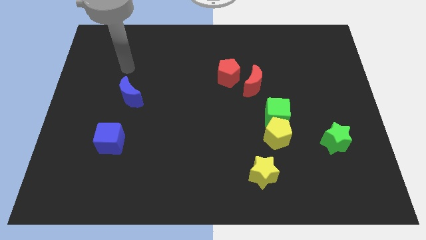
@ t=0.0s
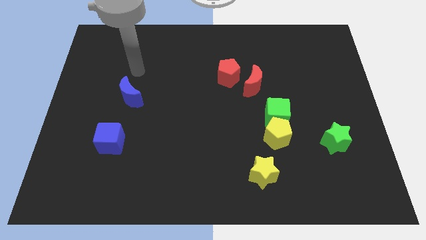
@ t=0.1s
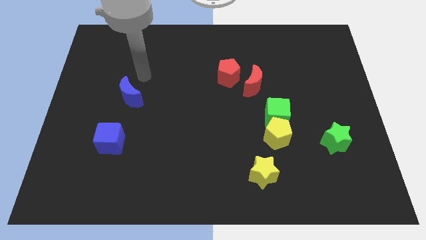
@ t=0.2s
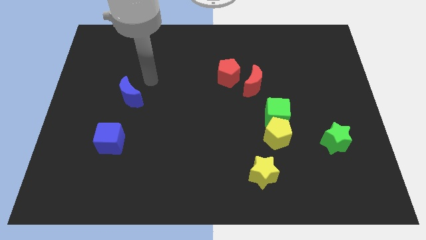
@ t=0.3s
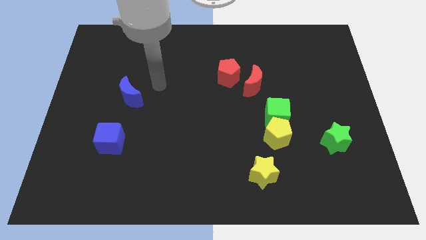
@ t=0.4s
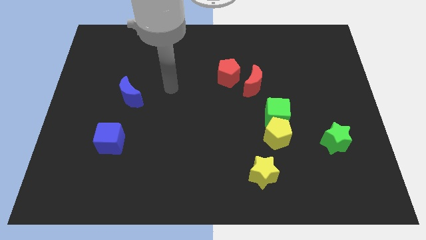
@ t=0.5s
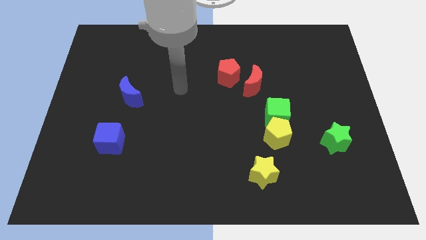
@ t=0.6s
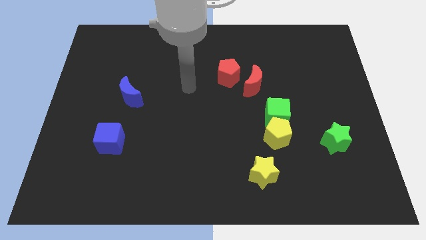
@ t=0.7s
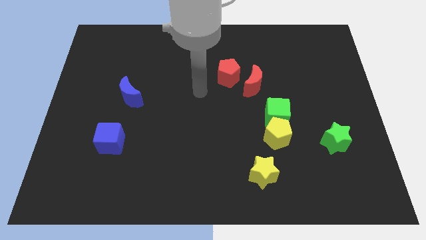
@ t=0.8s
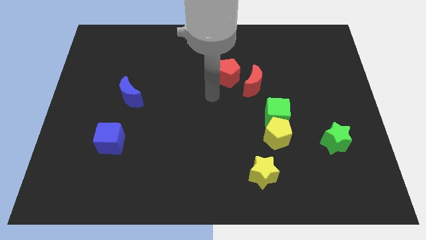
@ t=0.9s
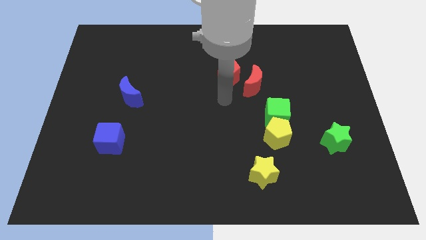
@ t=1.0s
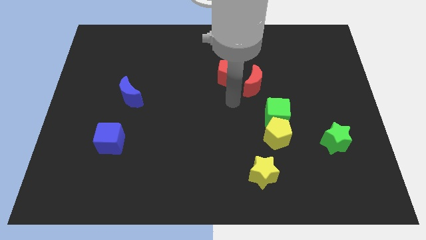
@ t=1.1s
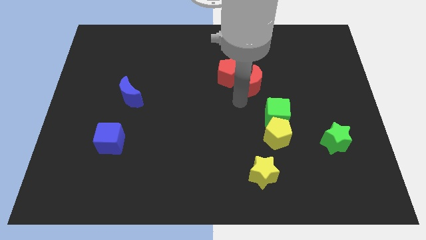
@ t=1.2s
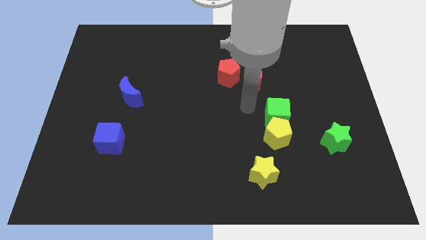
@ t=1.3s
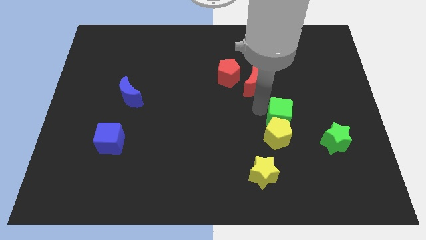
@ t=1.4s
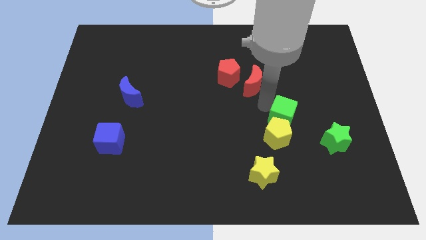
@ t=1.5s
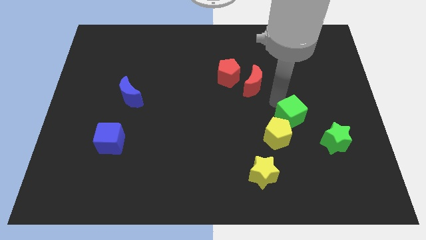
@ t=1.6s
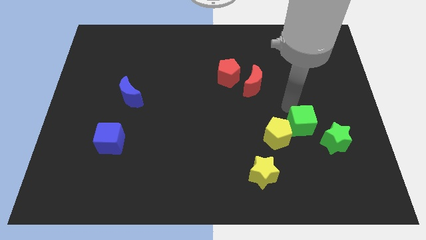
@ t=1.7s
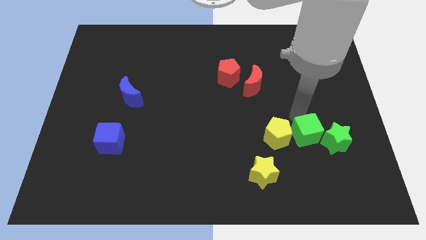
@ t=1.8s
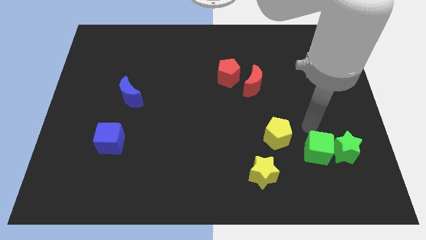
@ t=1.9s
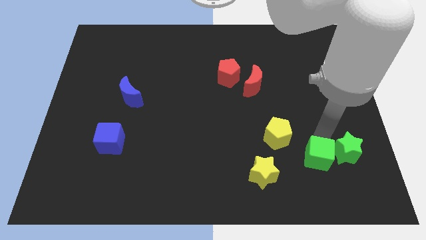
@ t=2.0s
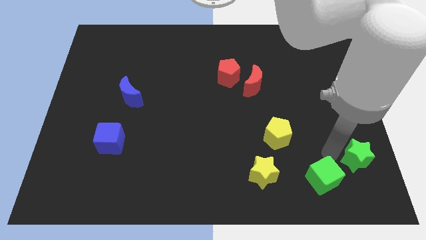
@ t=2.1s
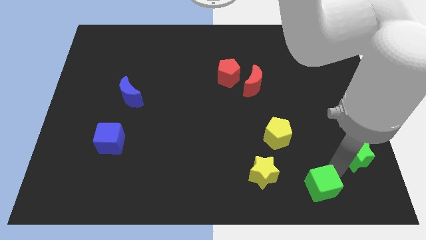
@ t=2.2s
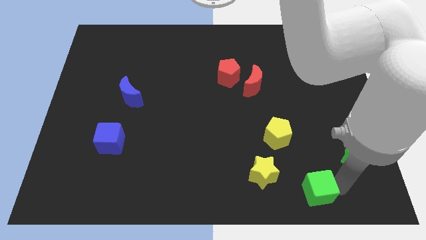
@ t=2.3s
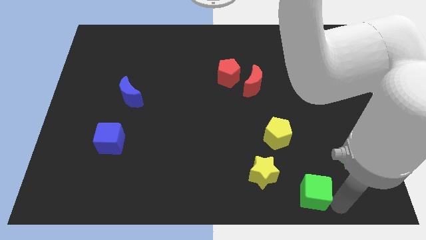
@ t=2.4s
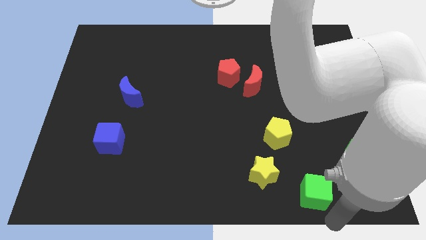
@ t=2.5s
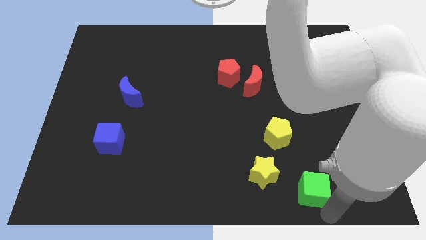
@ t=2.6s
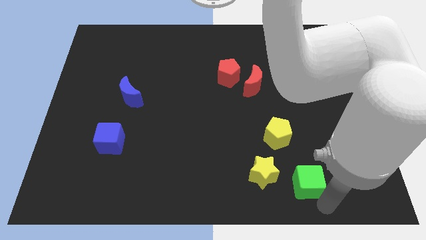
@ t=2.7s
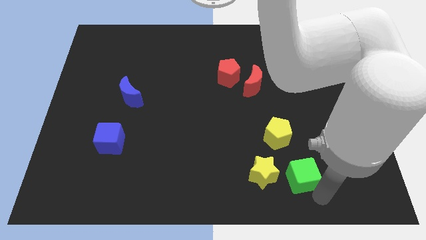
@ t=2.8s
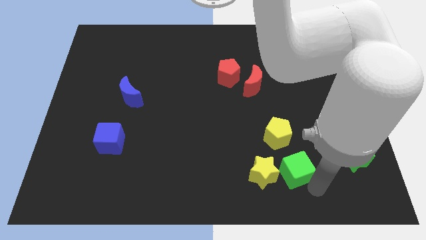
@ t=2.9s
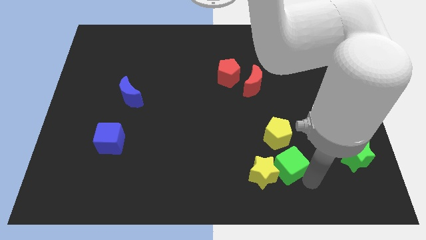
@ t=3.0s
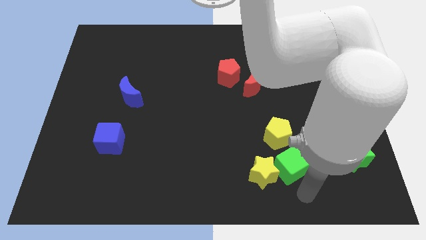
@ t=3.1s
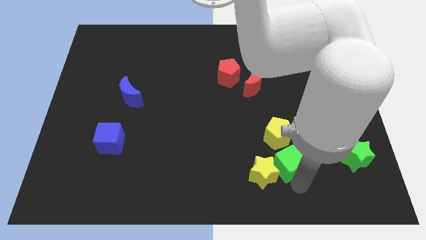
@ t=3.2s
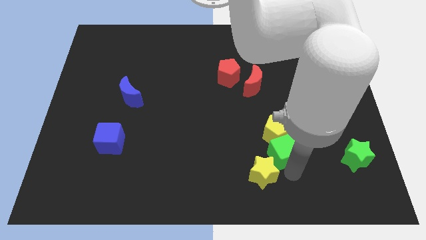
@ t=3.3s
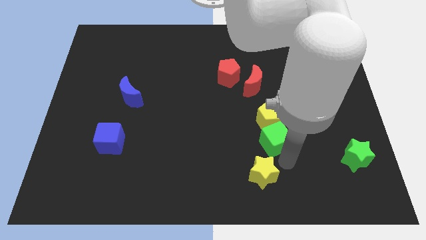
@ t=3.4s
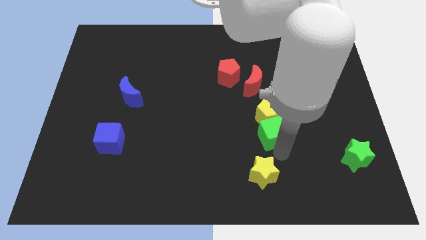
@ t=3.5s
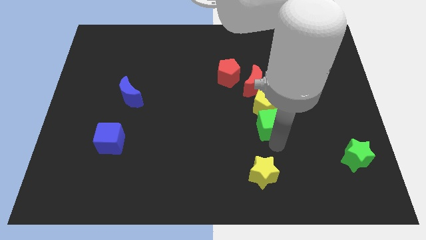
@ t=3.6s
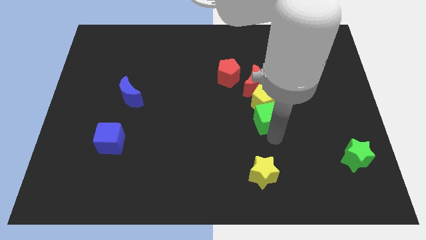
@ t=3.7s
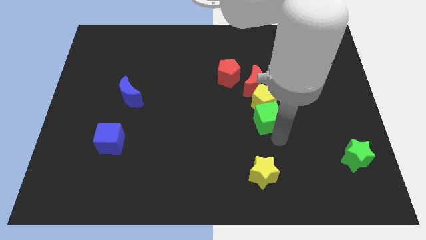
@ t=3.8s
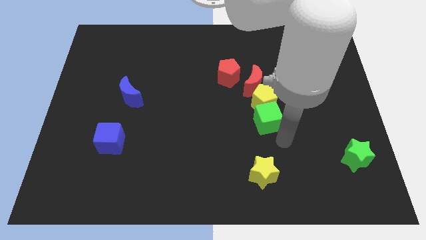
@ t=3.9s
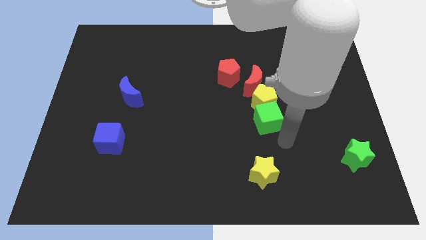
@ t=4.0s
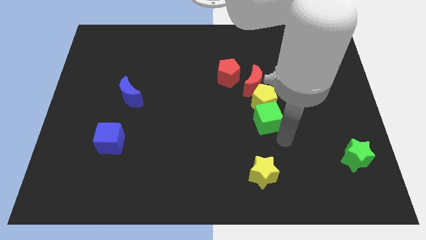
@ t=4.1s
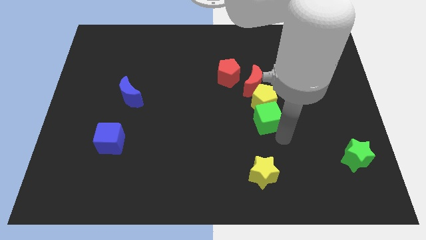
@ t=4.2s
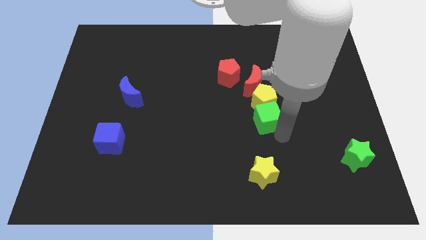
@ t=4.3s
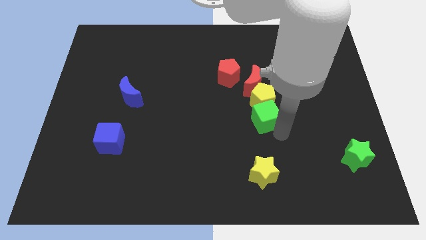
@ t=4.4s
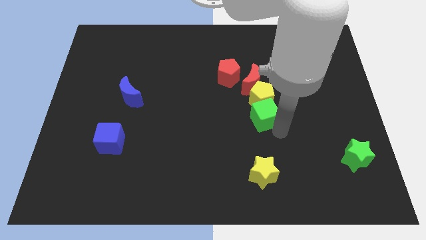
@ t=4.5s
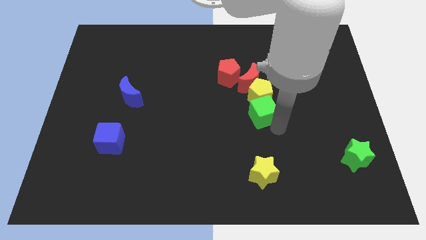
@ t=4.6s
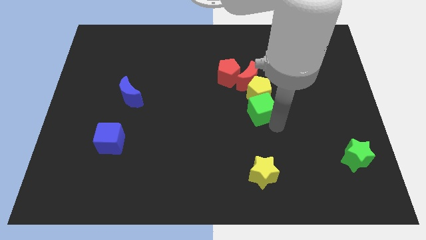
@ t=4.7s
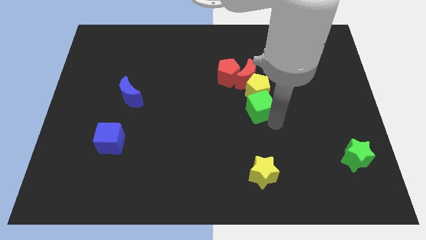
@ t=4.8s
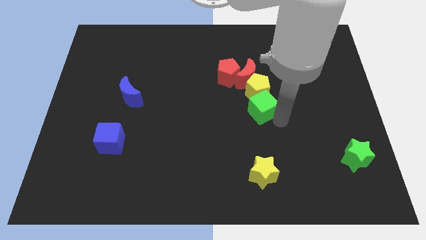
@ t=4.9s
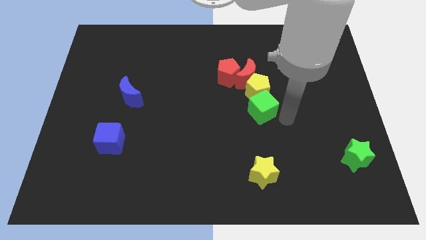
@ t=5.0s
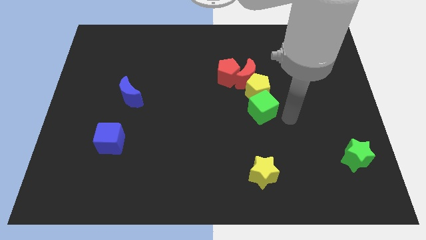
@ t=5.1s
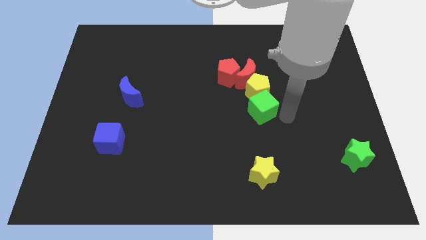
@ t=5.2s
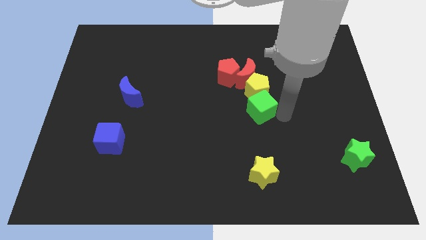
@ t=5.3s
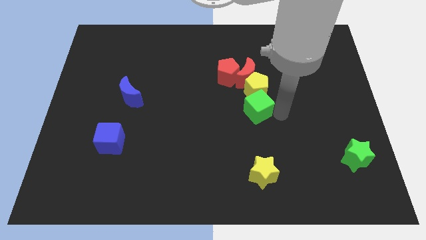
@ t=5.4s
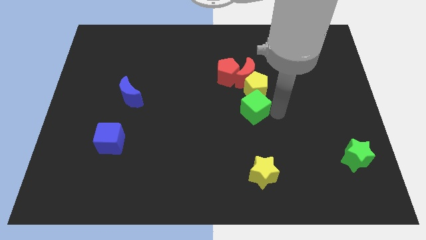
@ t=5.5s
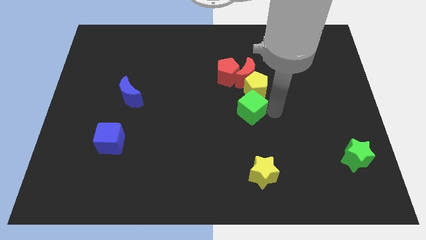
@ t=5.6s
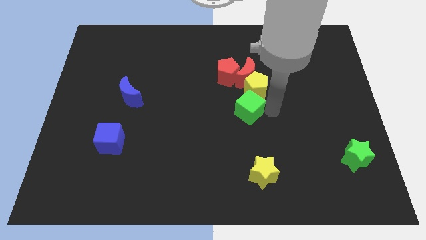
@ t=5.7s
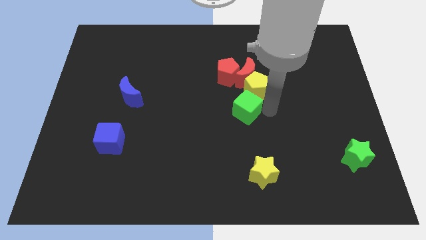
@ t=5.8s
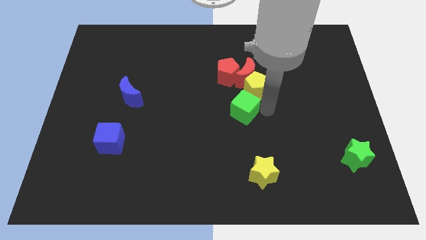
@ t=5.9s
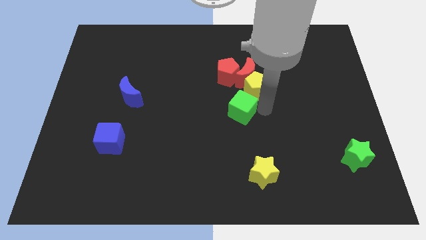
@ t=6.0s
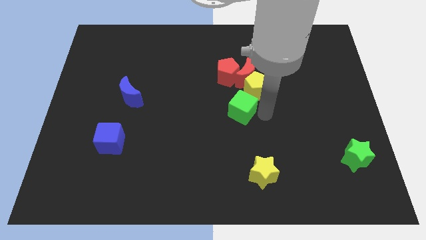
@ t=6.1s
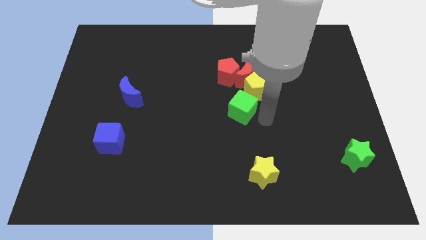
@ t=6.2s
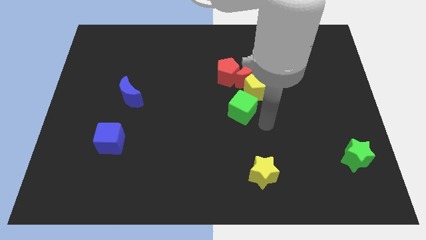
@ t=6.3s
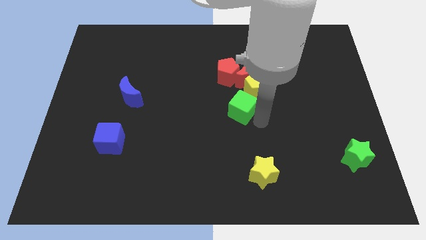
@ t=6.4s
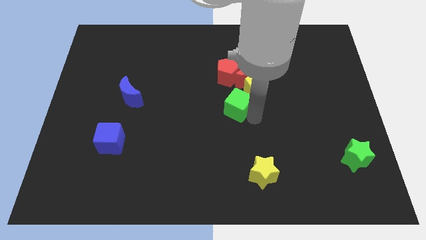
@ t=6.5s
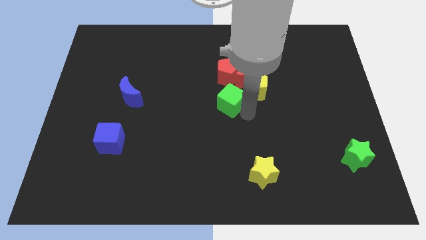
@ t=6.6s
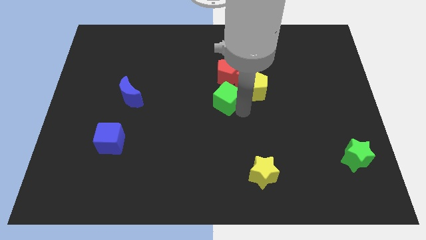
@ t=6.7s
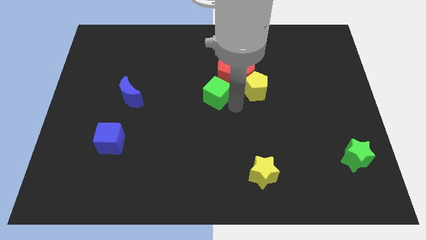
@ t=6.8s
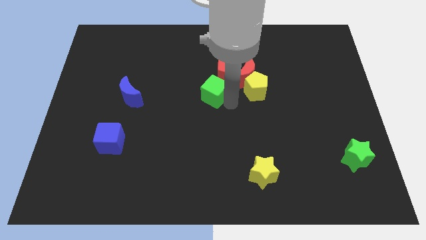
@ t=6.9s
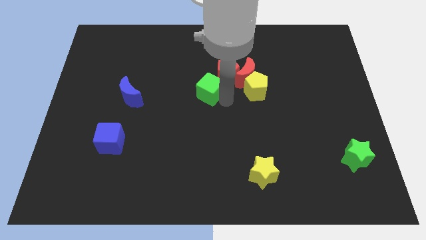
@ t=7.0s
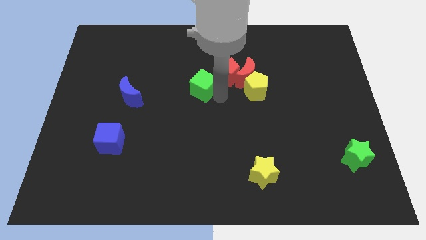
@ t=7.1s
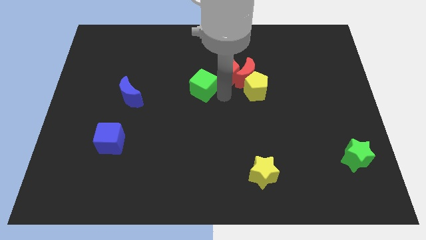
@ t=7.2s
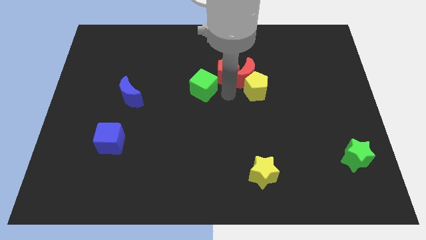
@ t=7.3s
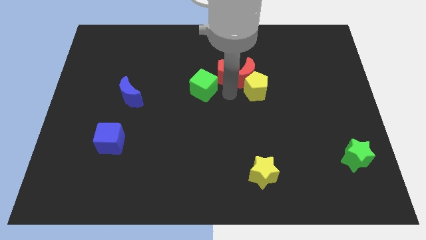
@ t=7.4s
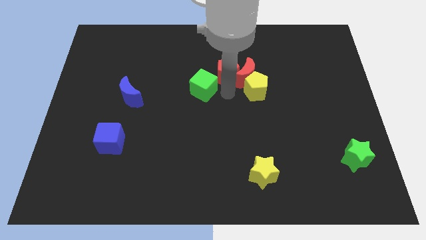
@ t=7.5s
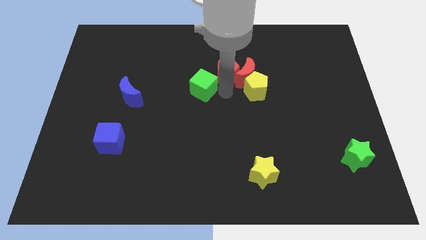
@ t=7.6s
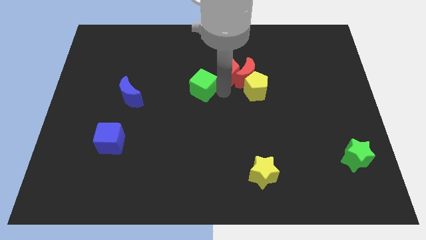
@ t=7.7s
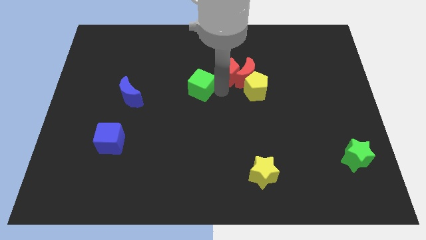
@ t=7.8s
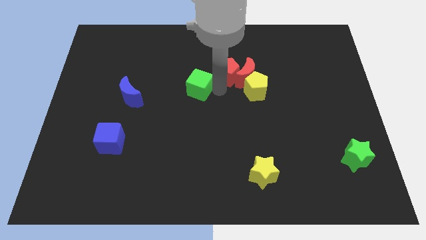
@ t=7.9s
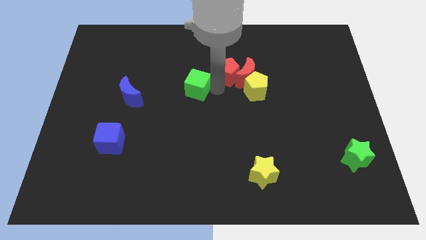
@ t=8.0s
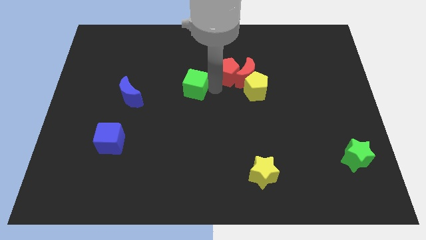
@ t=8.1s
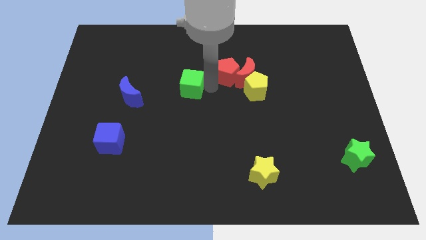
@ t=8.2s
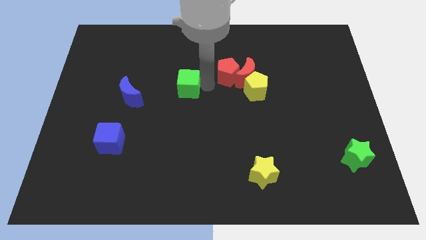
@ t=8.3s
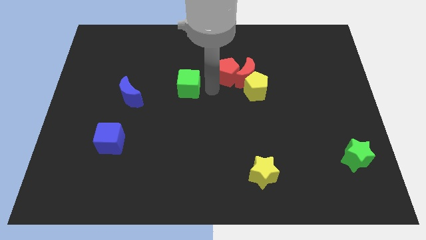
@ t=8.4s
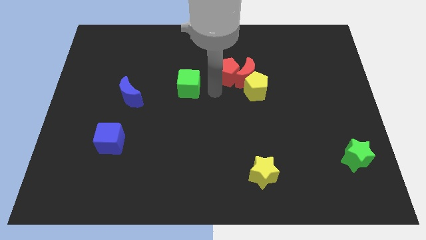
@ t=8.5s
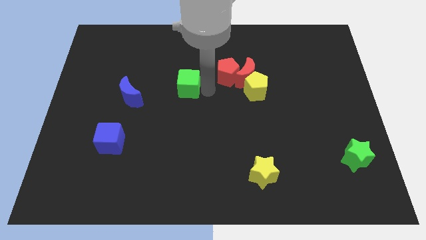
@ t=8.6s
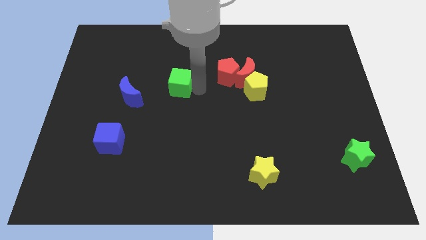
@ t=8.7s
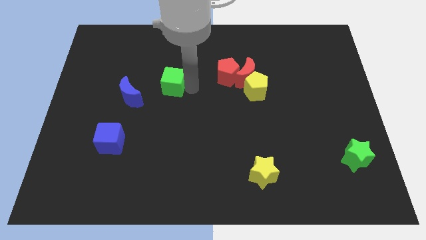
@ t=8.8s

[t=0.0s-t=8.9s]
slide the green cube to the top right of the blue moon
